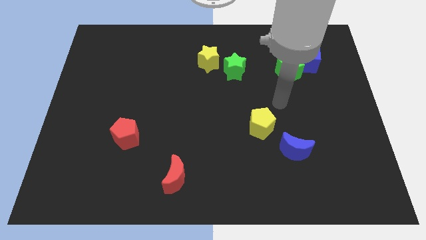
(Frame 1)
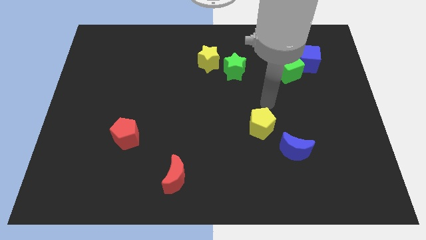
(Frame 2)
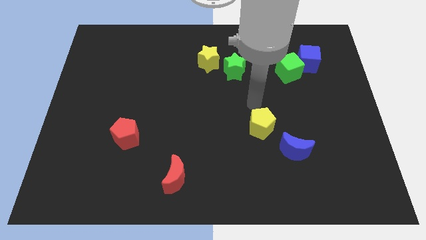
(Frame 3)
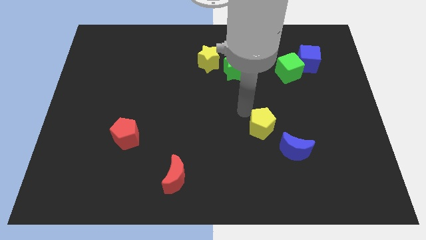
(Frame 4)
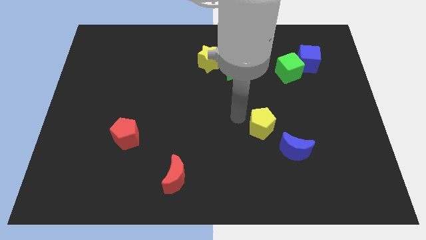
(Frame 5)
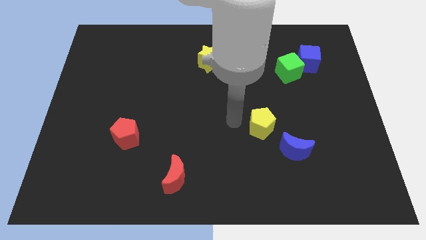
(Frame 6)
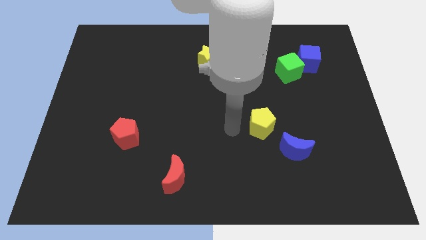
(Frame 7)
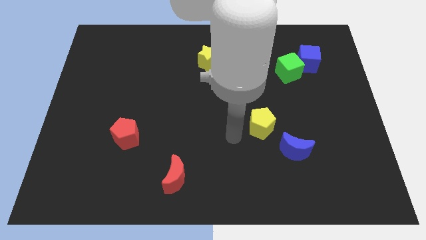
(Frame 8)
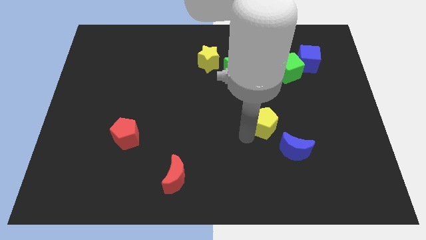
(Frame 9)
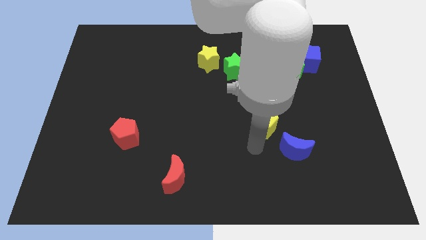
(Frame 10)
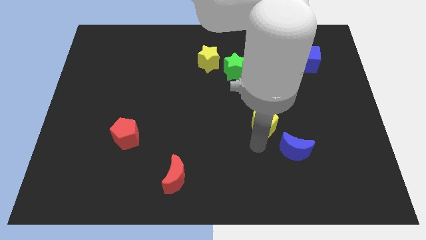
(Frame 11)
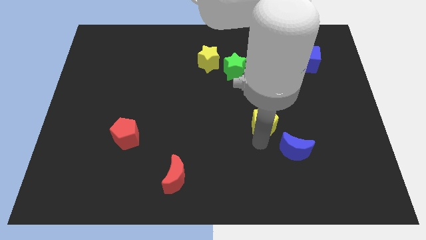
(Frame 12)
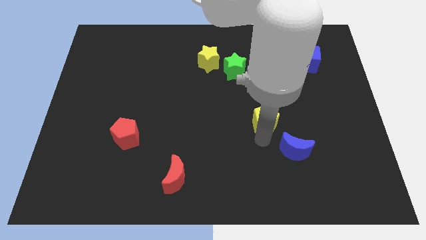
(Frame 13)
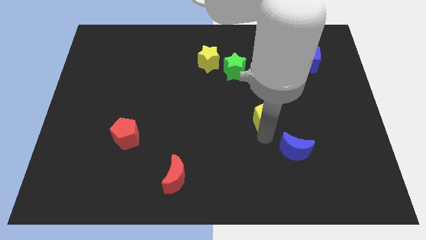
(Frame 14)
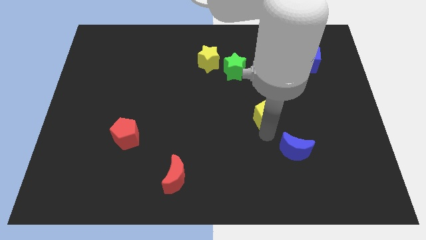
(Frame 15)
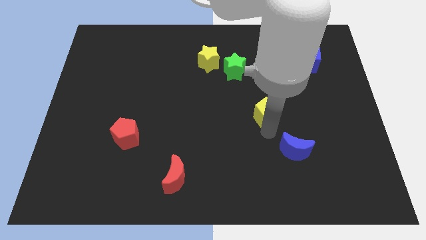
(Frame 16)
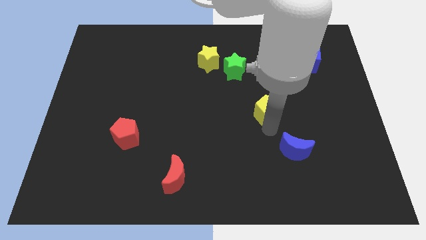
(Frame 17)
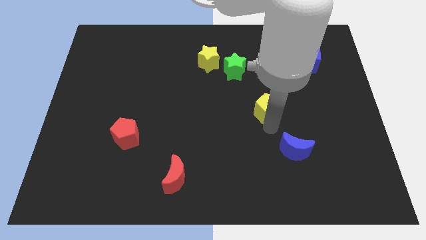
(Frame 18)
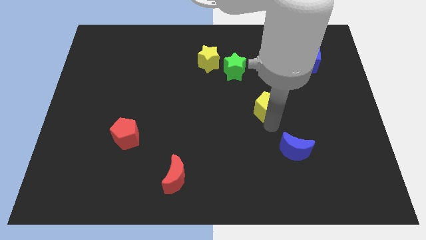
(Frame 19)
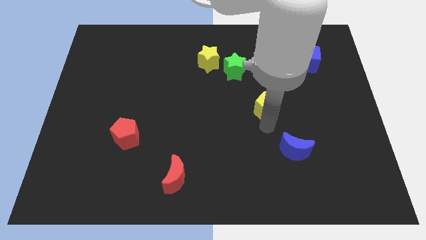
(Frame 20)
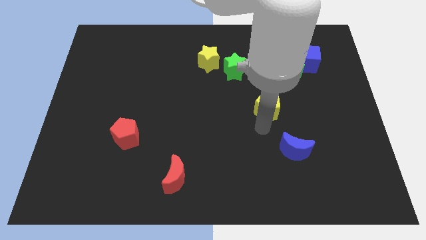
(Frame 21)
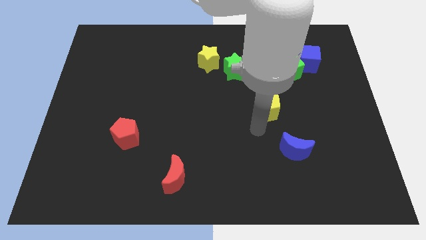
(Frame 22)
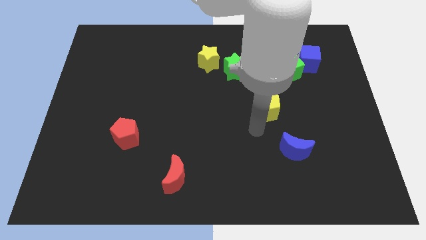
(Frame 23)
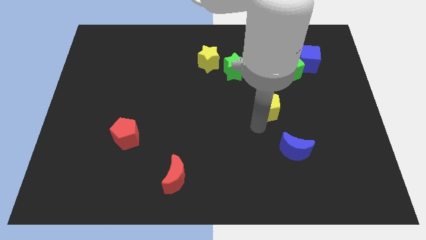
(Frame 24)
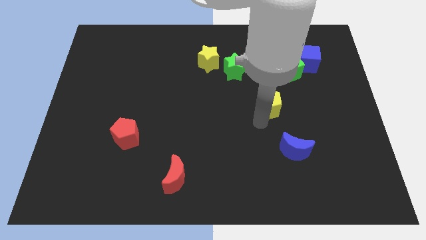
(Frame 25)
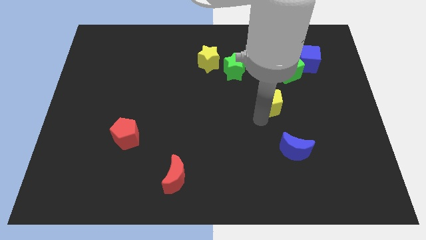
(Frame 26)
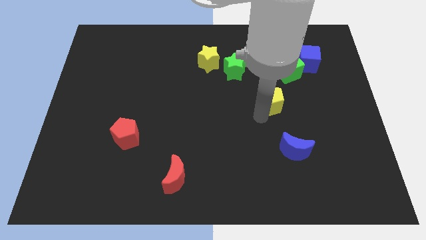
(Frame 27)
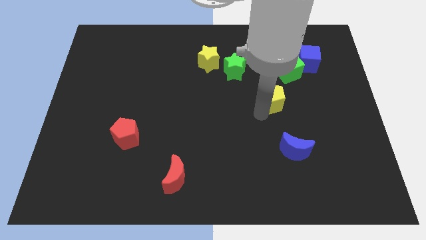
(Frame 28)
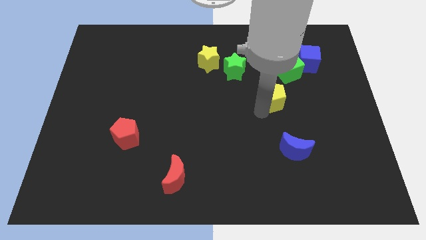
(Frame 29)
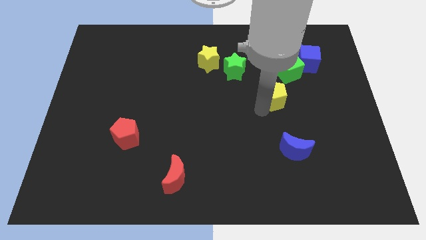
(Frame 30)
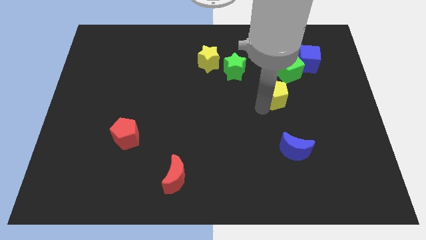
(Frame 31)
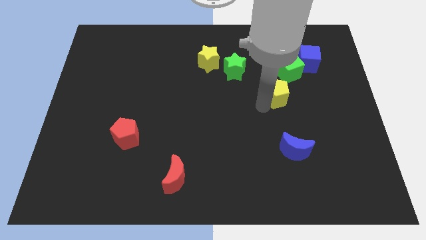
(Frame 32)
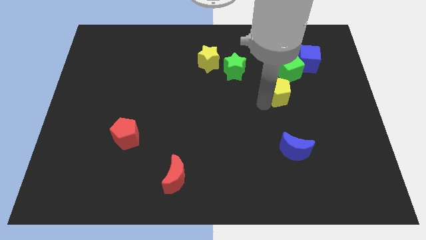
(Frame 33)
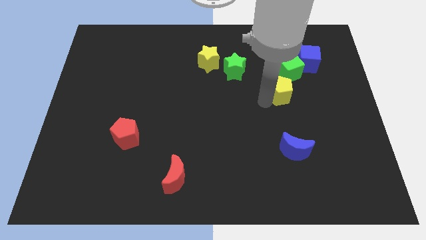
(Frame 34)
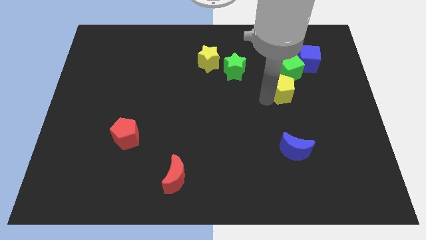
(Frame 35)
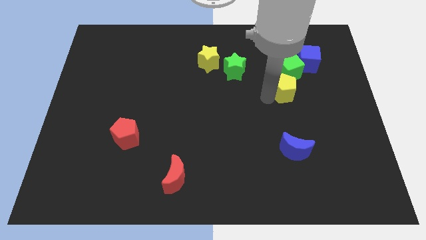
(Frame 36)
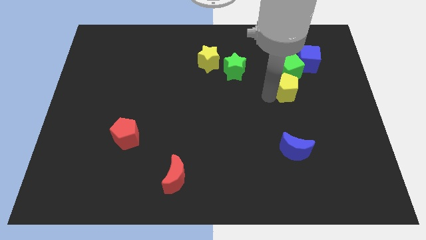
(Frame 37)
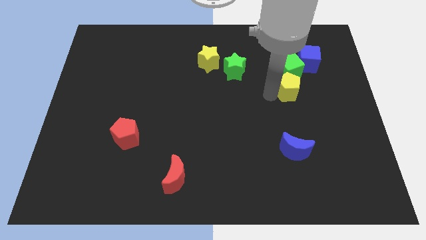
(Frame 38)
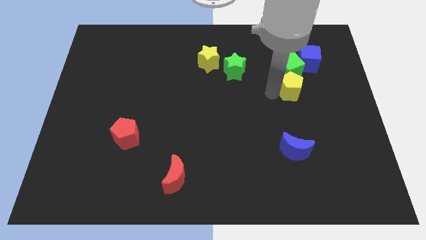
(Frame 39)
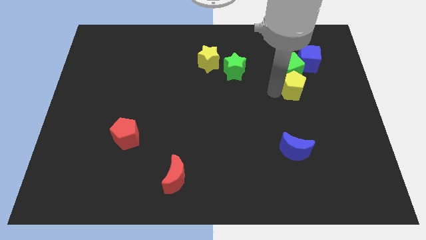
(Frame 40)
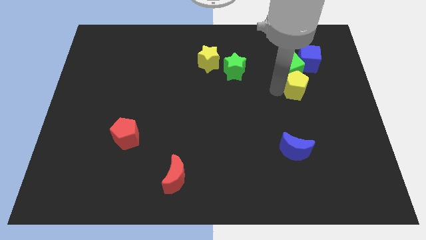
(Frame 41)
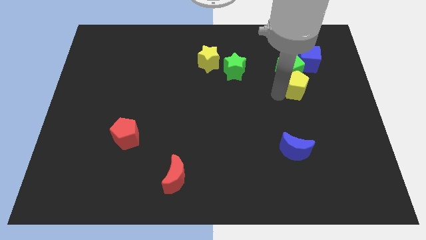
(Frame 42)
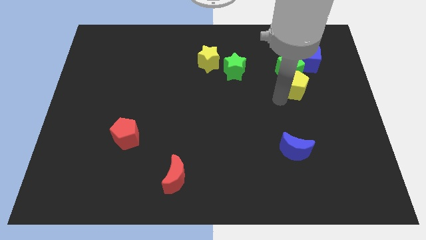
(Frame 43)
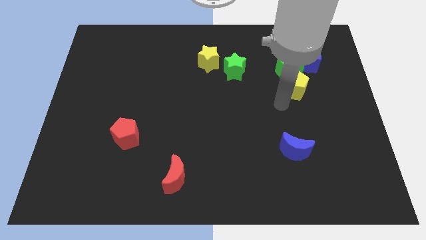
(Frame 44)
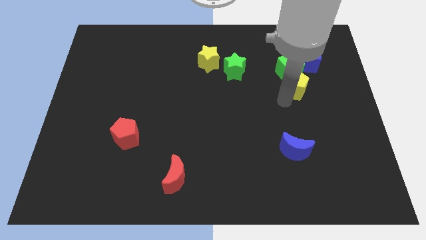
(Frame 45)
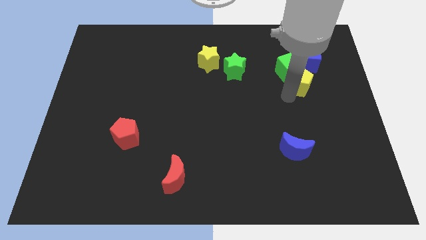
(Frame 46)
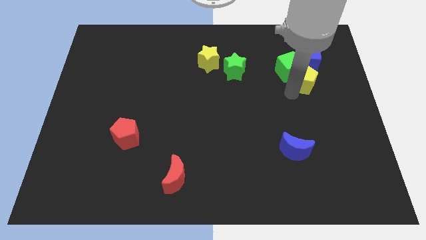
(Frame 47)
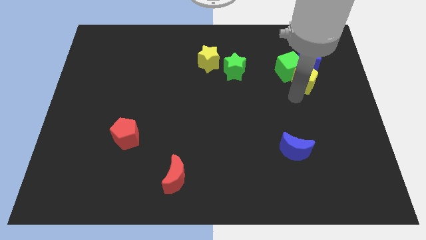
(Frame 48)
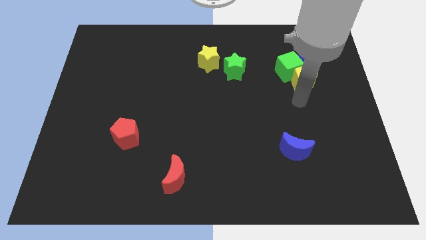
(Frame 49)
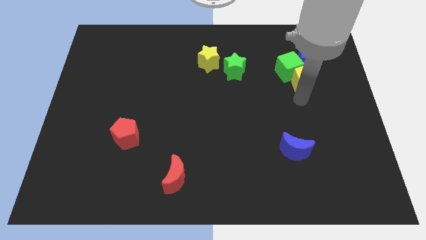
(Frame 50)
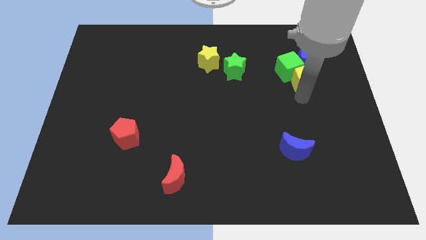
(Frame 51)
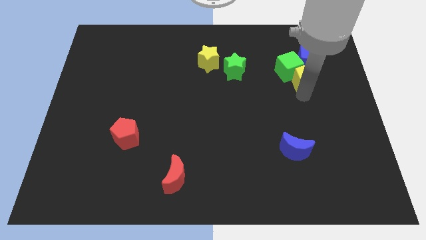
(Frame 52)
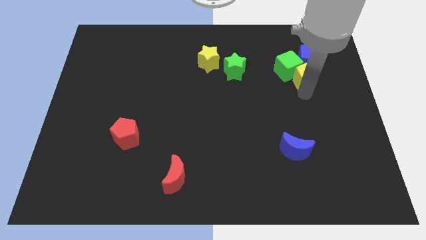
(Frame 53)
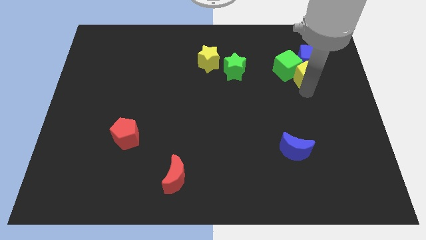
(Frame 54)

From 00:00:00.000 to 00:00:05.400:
slide the yellow pentagon close to the blue cube

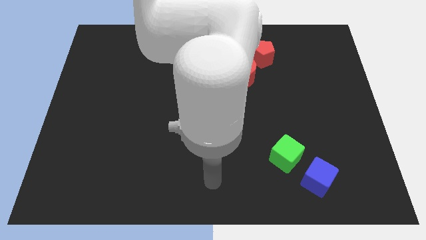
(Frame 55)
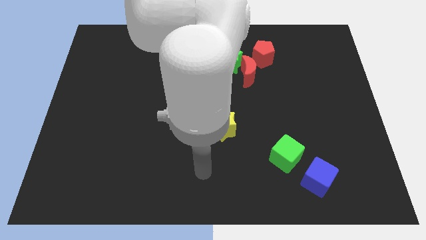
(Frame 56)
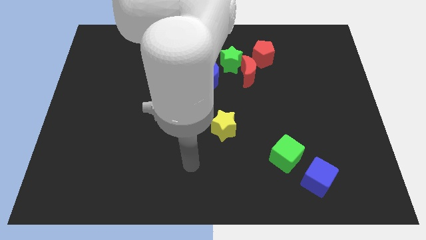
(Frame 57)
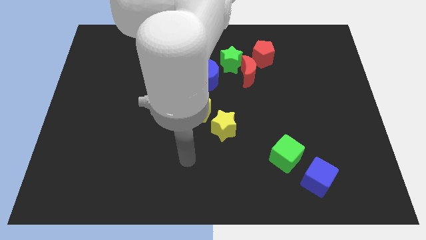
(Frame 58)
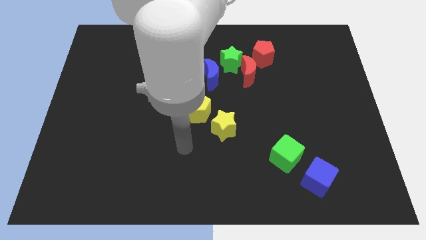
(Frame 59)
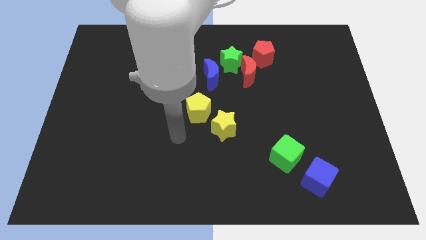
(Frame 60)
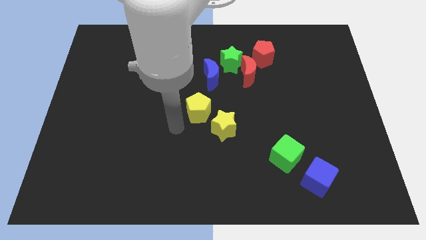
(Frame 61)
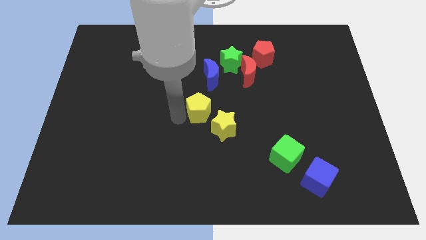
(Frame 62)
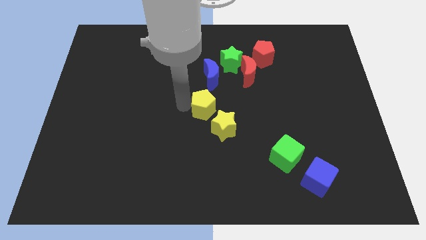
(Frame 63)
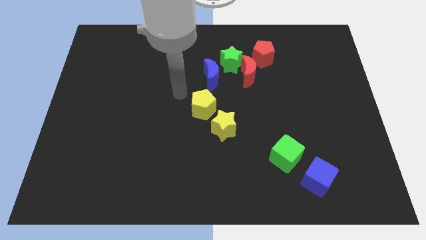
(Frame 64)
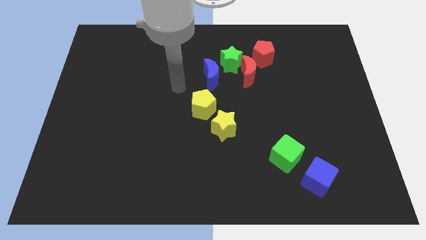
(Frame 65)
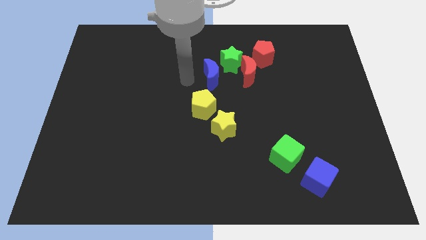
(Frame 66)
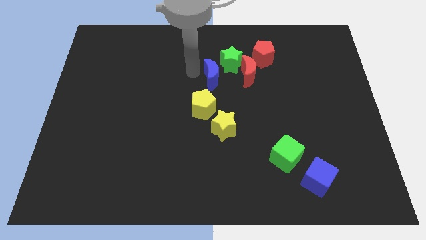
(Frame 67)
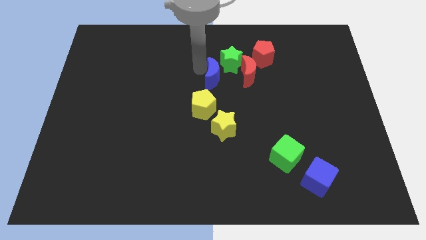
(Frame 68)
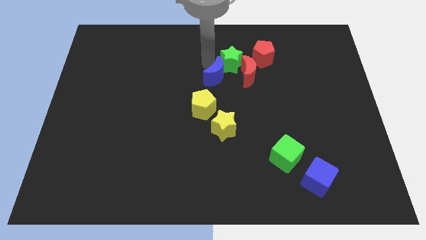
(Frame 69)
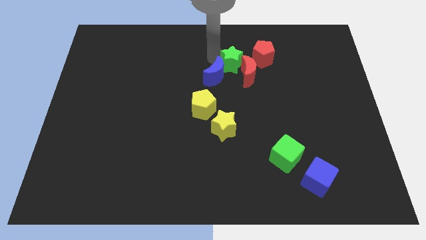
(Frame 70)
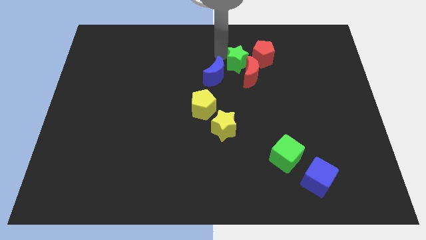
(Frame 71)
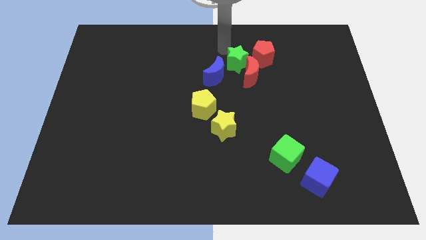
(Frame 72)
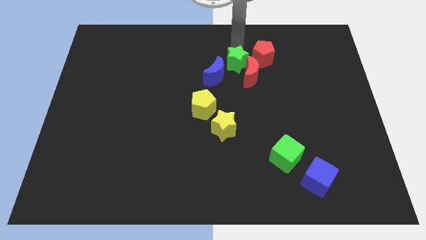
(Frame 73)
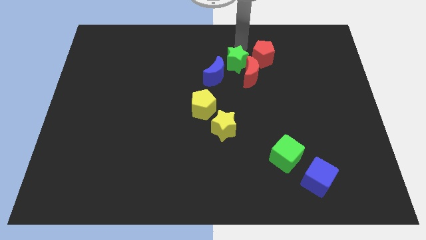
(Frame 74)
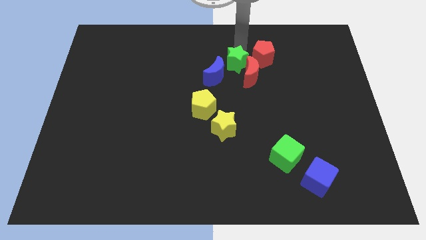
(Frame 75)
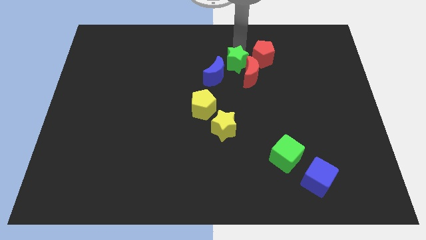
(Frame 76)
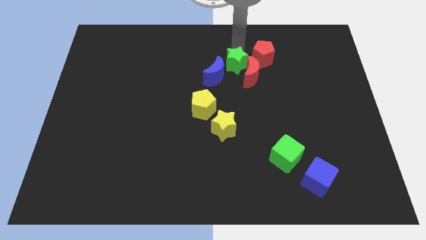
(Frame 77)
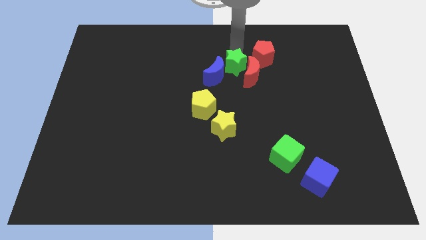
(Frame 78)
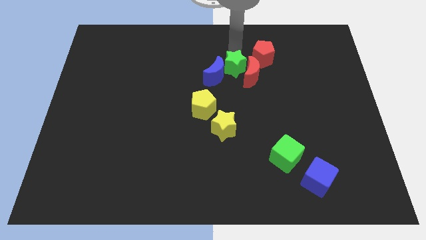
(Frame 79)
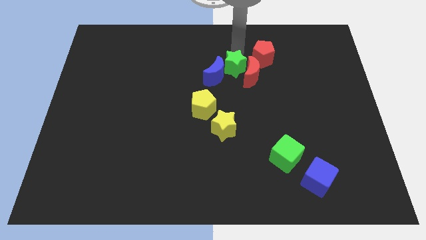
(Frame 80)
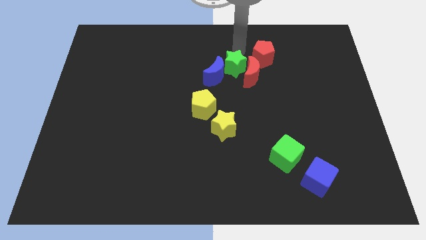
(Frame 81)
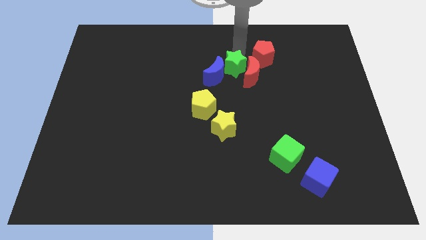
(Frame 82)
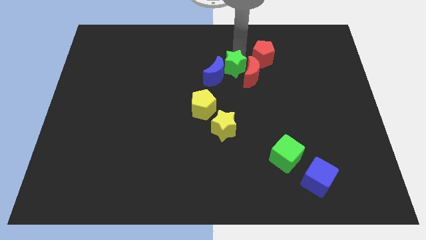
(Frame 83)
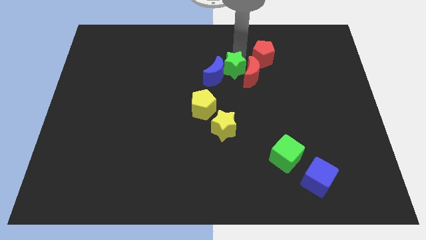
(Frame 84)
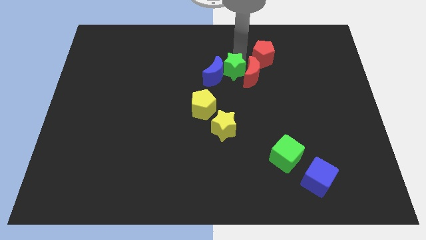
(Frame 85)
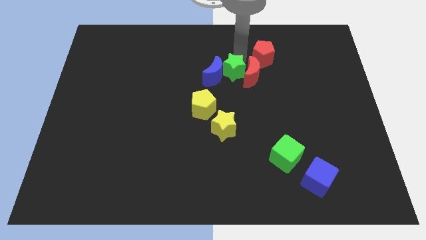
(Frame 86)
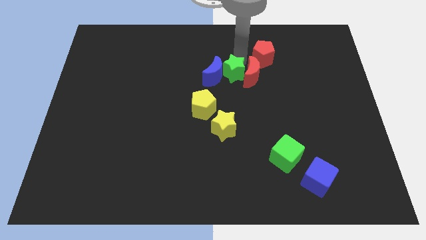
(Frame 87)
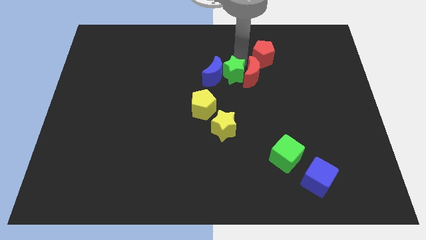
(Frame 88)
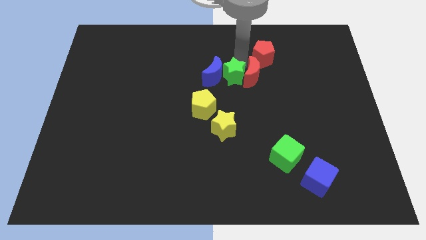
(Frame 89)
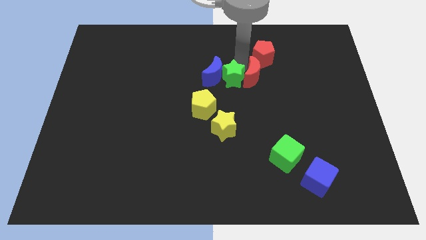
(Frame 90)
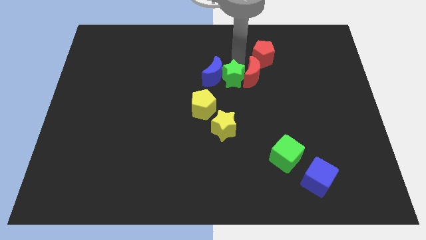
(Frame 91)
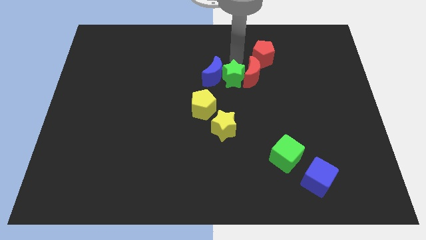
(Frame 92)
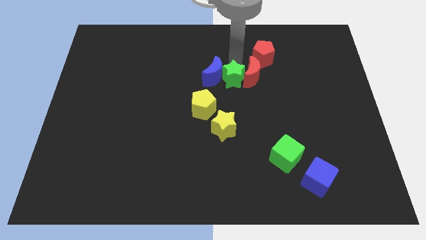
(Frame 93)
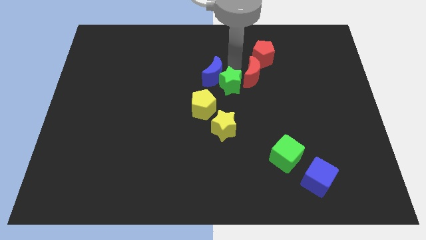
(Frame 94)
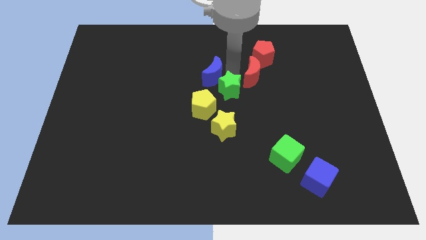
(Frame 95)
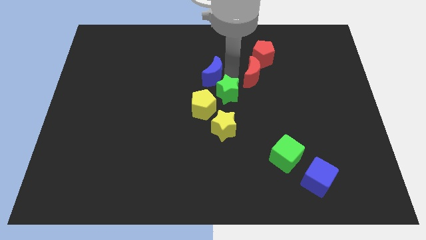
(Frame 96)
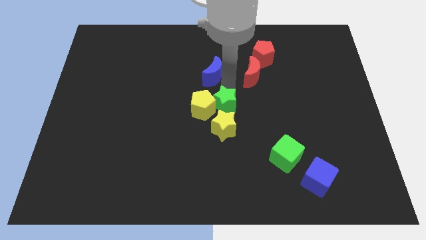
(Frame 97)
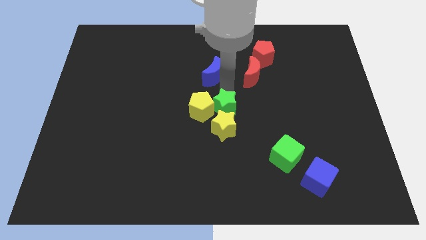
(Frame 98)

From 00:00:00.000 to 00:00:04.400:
slide the green star close to the yellow star
